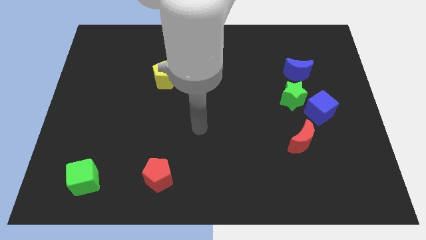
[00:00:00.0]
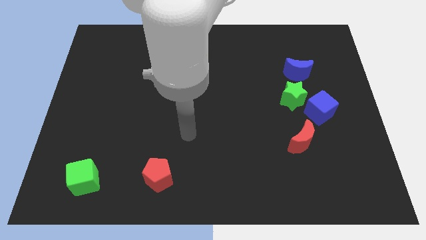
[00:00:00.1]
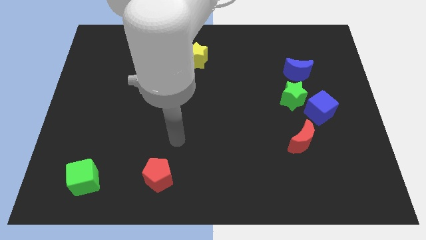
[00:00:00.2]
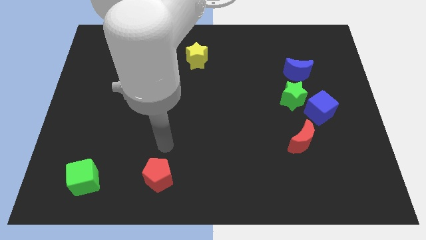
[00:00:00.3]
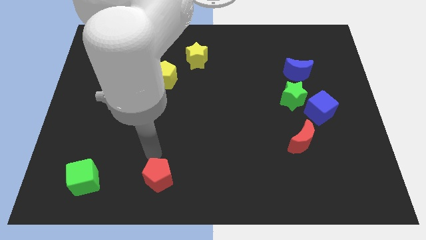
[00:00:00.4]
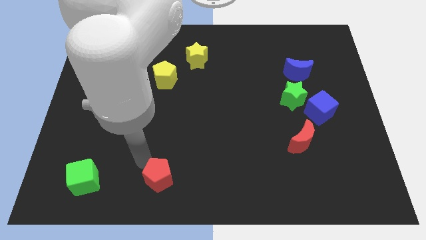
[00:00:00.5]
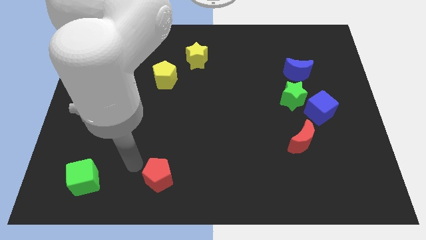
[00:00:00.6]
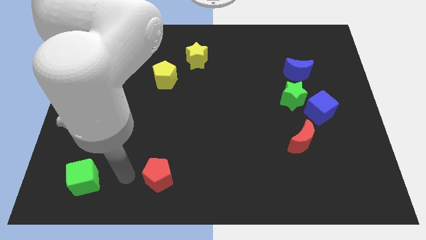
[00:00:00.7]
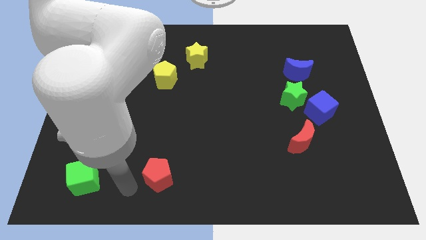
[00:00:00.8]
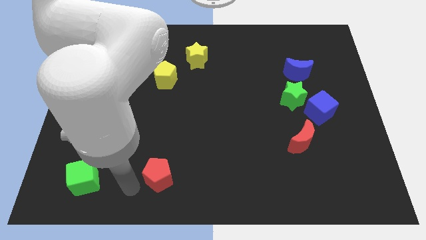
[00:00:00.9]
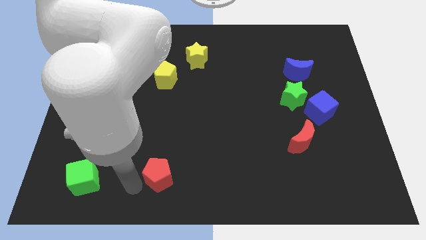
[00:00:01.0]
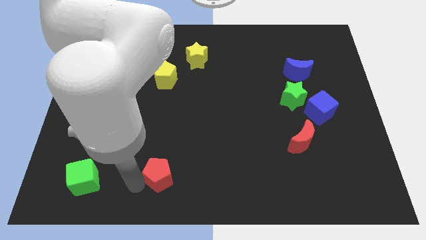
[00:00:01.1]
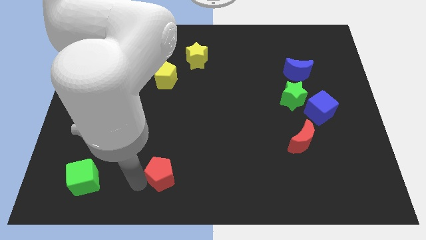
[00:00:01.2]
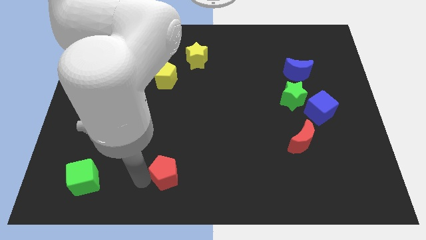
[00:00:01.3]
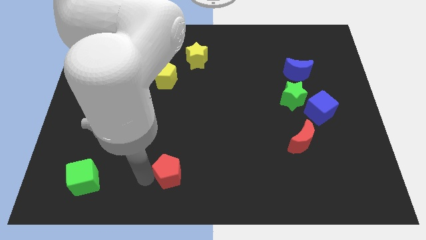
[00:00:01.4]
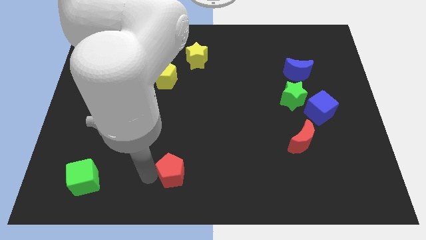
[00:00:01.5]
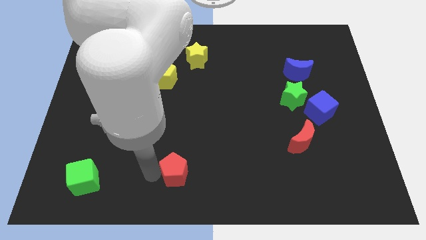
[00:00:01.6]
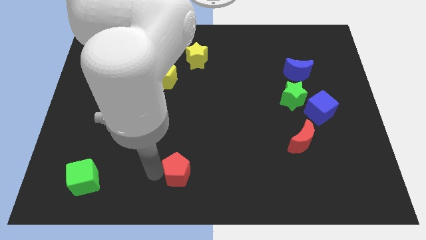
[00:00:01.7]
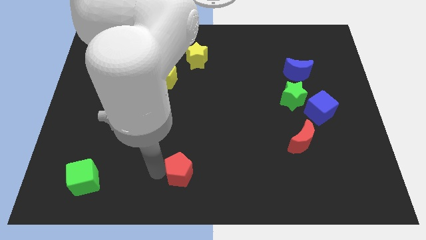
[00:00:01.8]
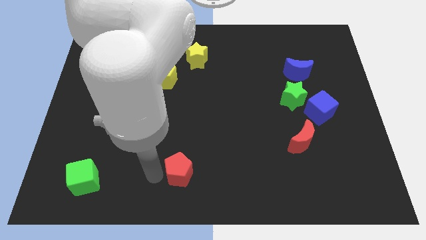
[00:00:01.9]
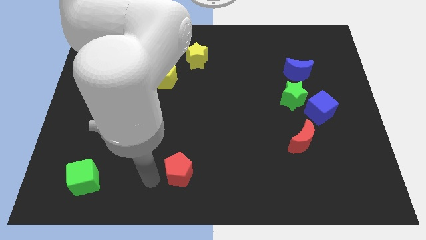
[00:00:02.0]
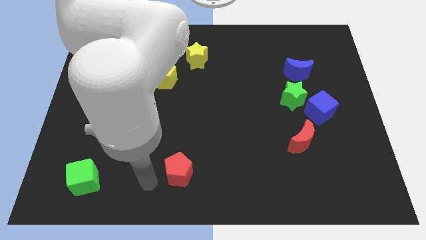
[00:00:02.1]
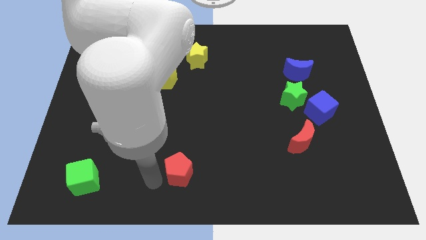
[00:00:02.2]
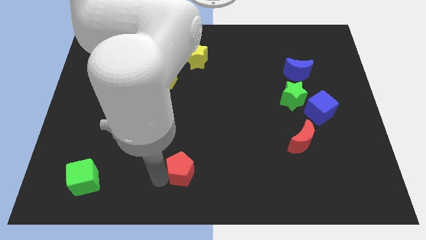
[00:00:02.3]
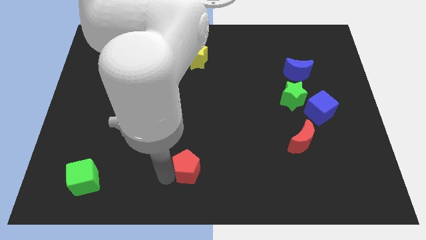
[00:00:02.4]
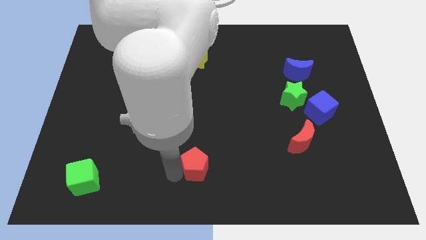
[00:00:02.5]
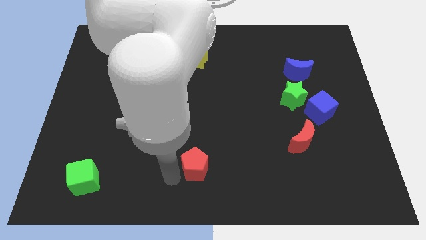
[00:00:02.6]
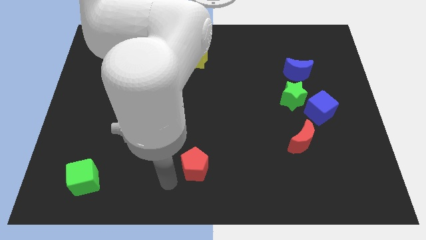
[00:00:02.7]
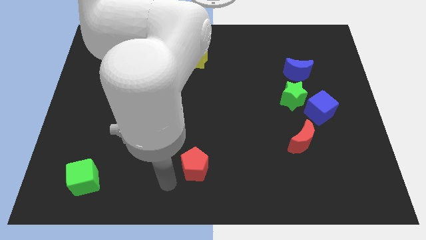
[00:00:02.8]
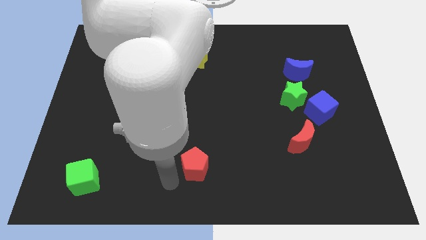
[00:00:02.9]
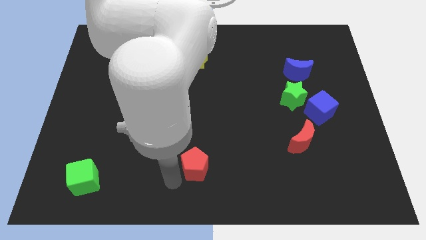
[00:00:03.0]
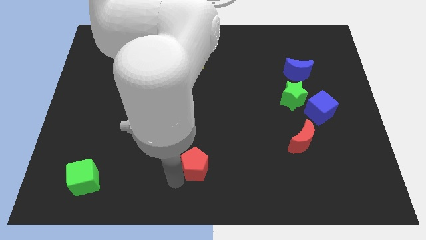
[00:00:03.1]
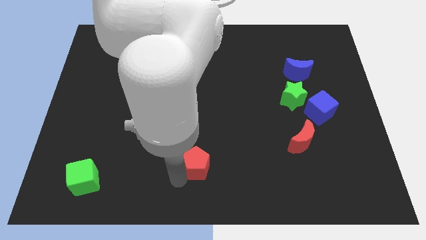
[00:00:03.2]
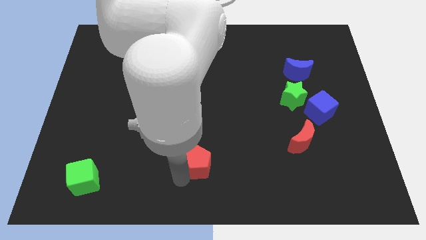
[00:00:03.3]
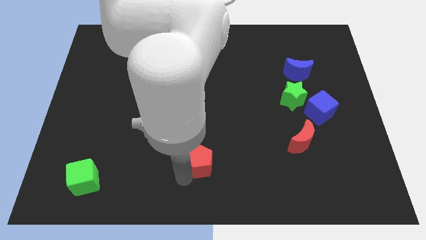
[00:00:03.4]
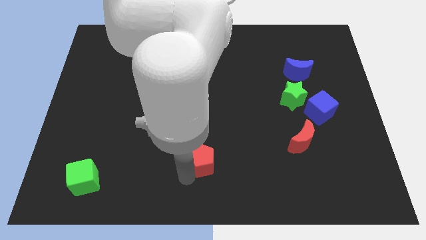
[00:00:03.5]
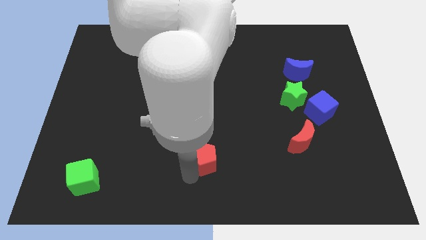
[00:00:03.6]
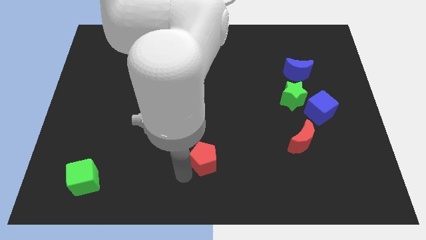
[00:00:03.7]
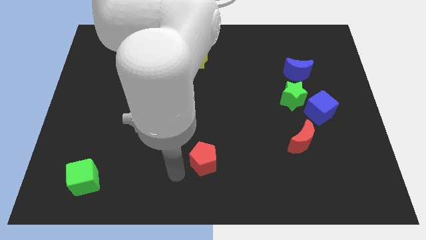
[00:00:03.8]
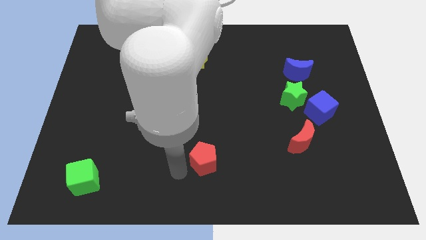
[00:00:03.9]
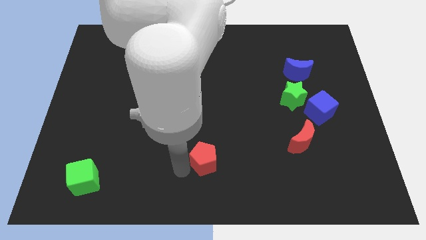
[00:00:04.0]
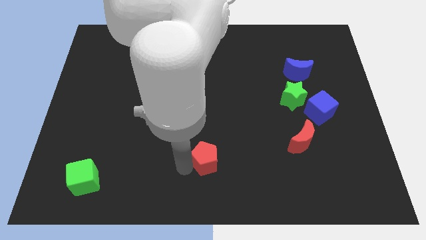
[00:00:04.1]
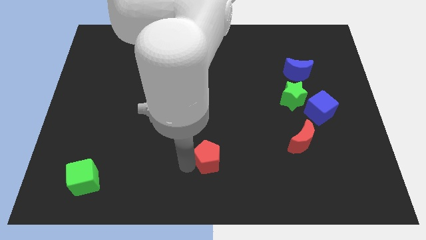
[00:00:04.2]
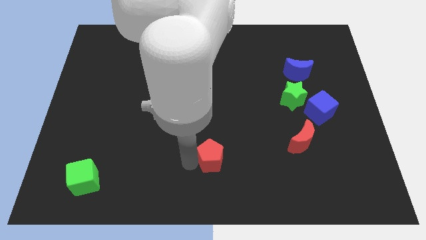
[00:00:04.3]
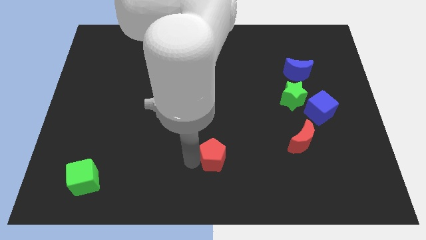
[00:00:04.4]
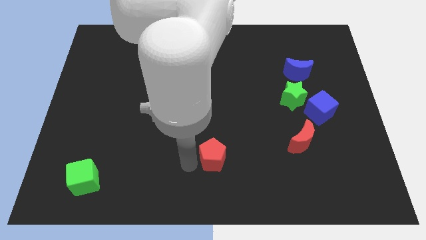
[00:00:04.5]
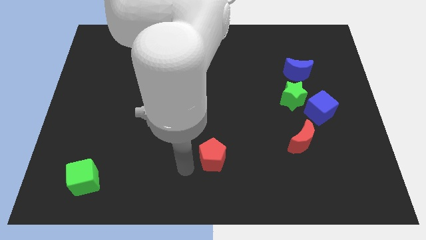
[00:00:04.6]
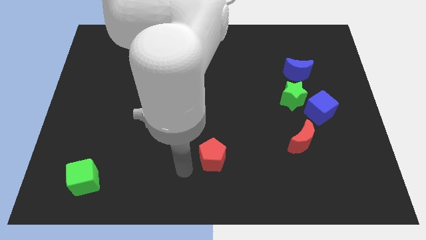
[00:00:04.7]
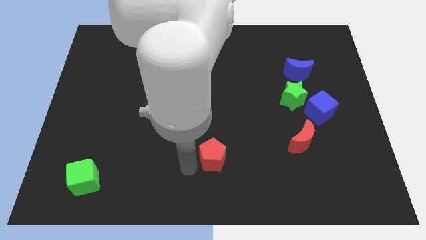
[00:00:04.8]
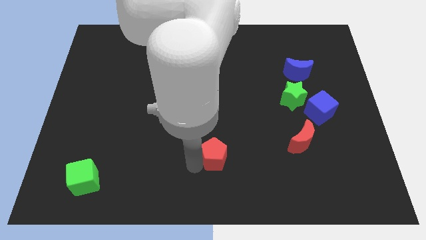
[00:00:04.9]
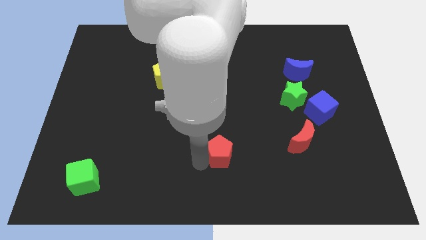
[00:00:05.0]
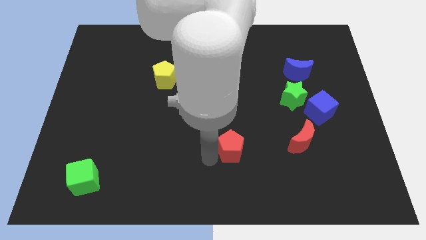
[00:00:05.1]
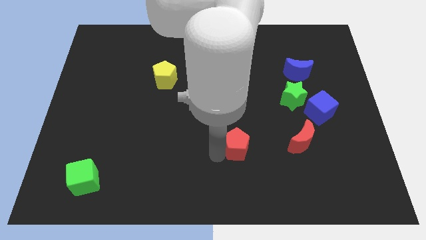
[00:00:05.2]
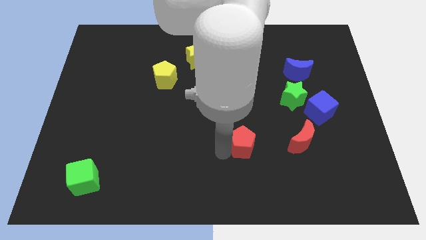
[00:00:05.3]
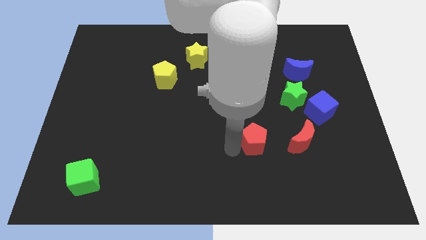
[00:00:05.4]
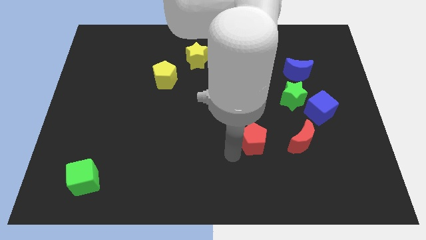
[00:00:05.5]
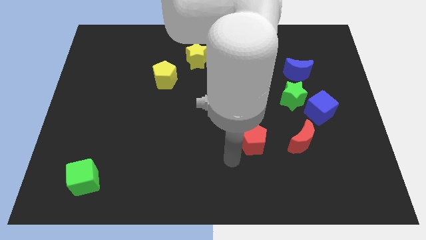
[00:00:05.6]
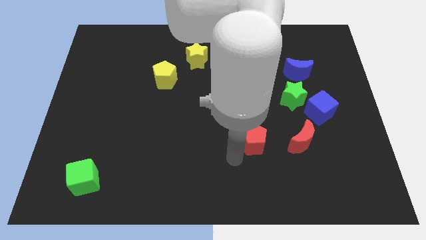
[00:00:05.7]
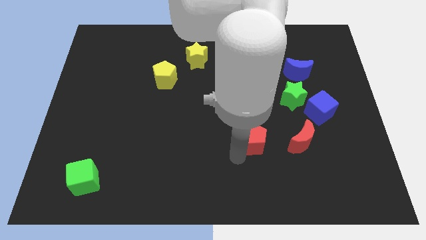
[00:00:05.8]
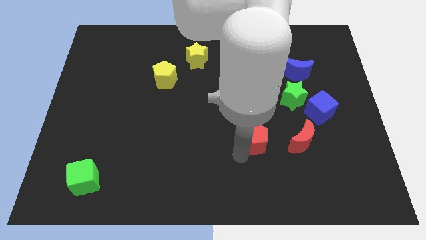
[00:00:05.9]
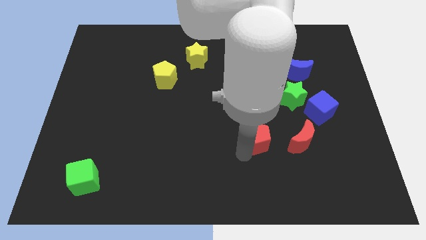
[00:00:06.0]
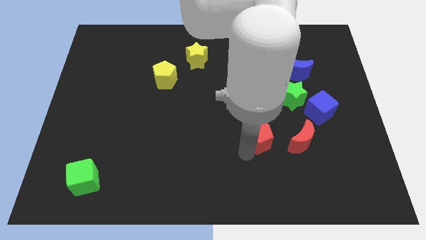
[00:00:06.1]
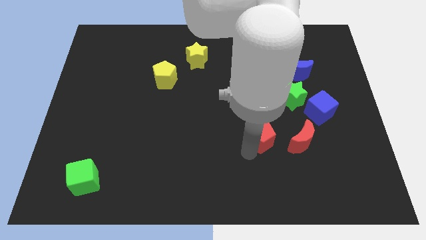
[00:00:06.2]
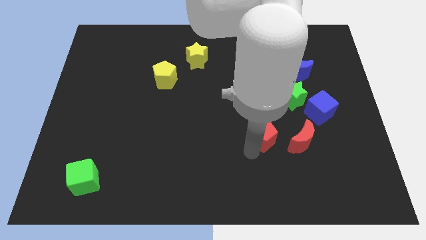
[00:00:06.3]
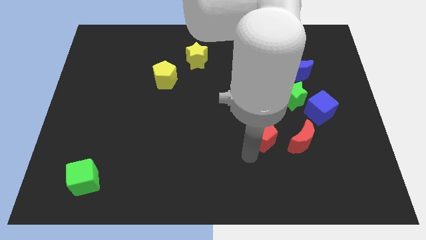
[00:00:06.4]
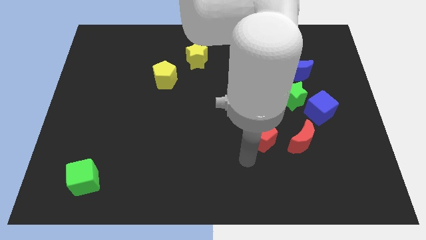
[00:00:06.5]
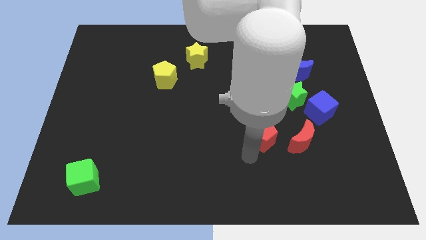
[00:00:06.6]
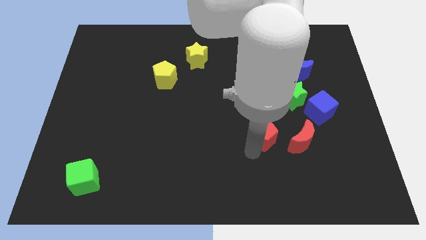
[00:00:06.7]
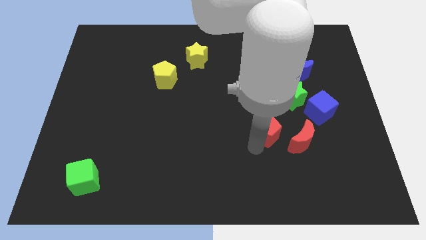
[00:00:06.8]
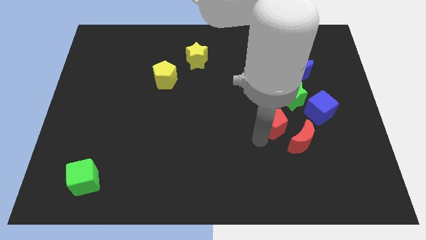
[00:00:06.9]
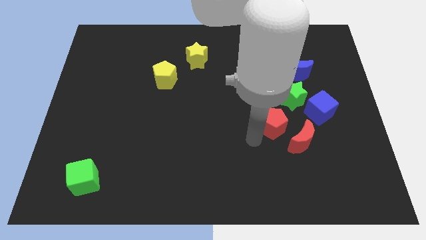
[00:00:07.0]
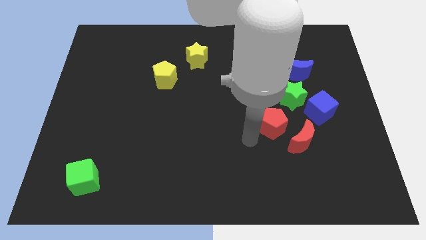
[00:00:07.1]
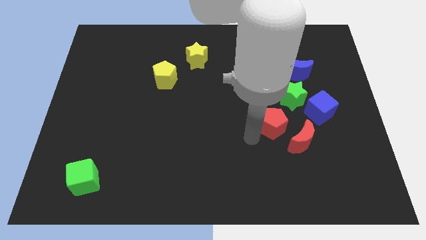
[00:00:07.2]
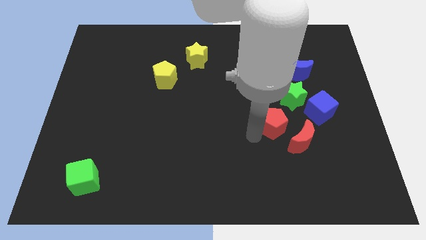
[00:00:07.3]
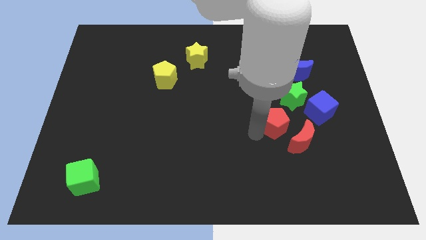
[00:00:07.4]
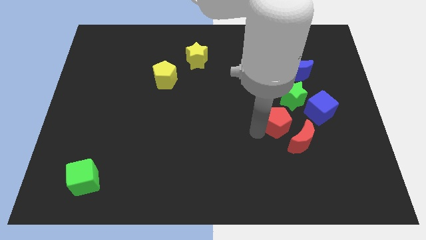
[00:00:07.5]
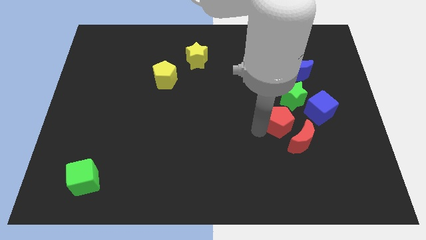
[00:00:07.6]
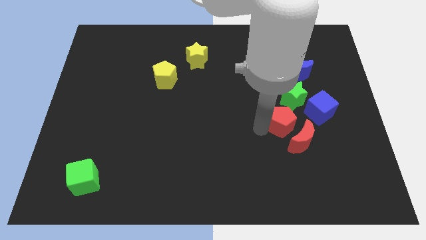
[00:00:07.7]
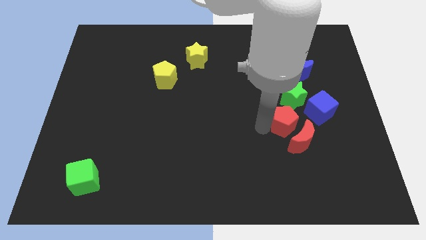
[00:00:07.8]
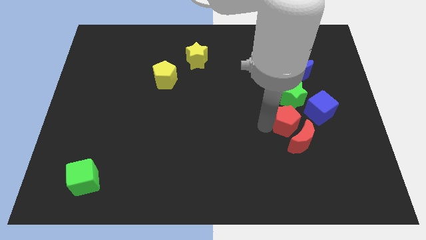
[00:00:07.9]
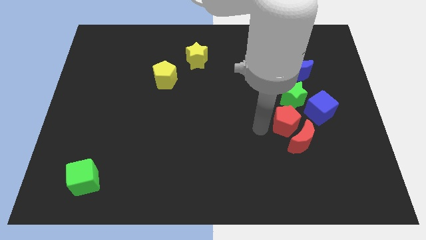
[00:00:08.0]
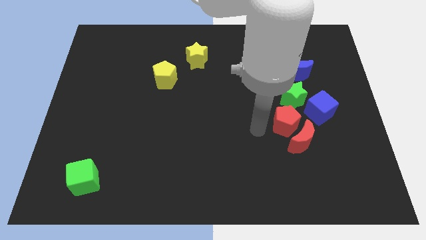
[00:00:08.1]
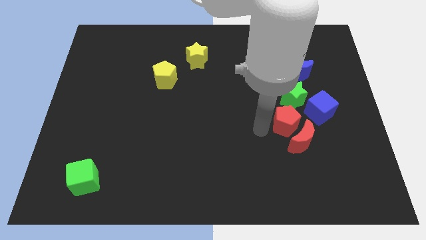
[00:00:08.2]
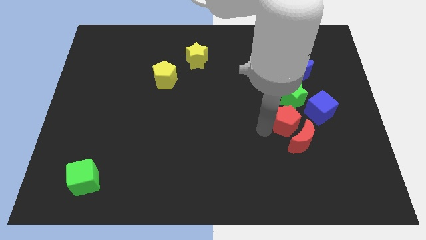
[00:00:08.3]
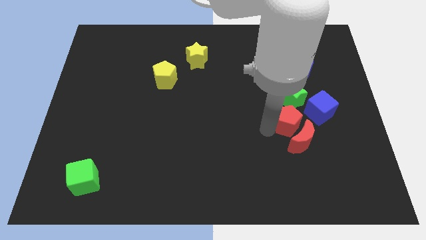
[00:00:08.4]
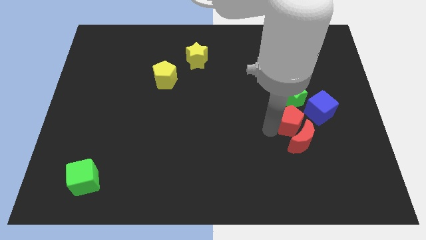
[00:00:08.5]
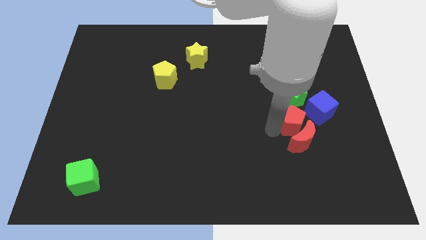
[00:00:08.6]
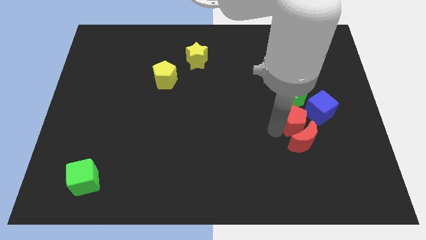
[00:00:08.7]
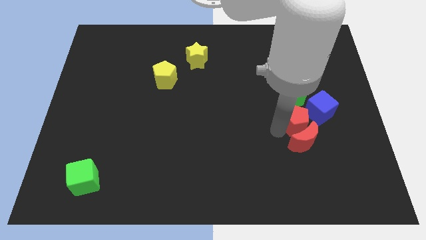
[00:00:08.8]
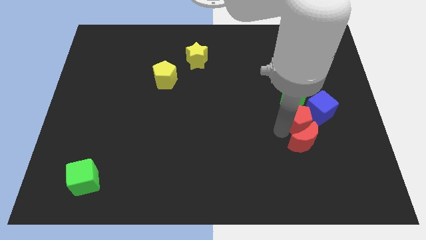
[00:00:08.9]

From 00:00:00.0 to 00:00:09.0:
move the red pentagon to the bottom of the blue moon
